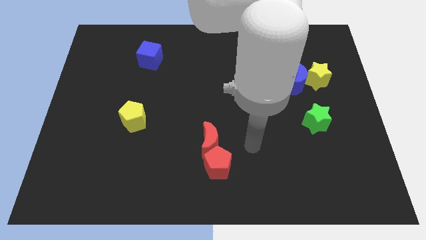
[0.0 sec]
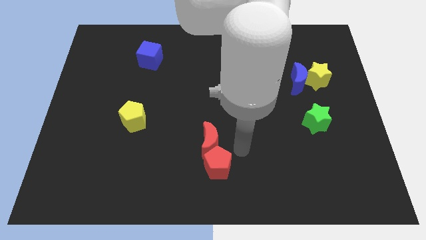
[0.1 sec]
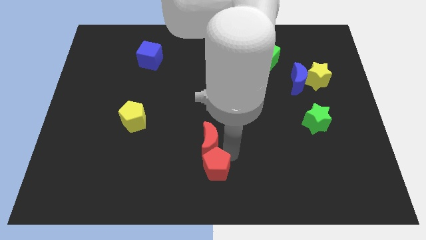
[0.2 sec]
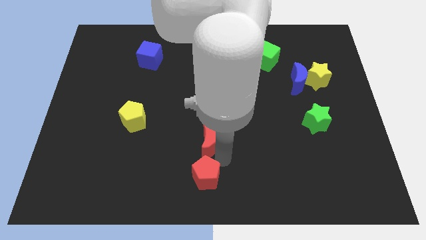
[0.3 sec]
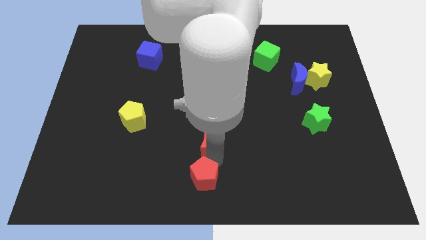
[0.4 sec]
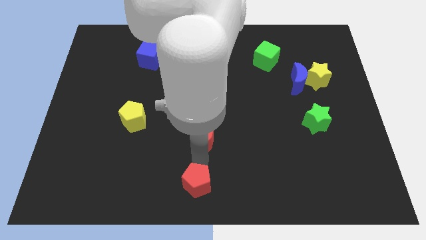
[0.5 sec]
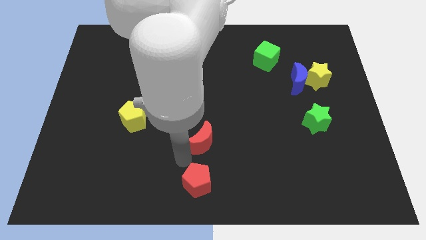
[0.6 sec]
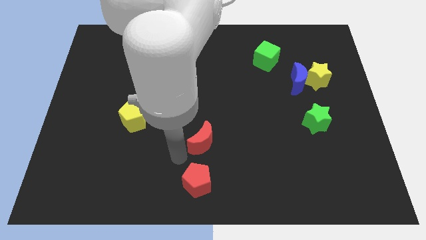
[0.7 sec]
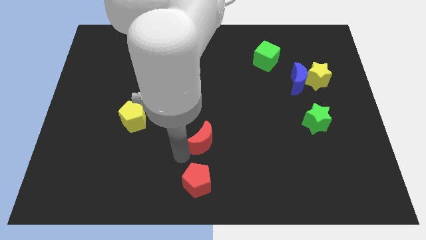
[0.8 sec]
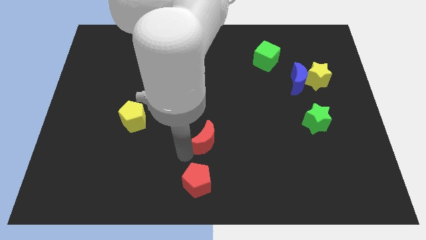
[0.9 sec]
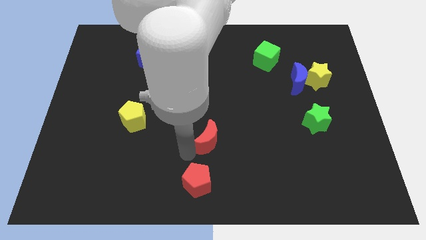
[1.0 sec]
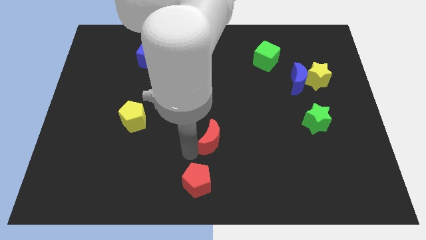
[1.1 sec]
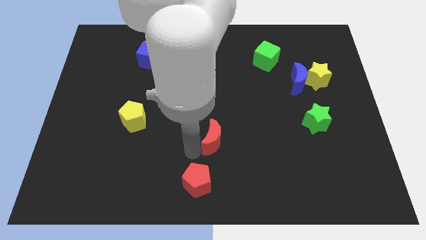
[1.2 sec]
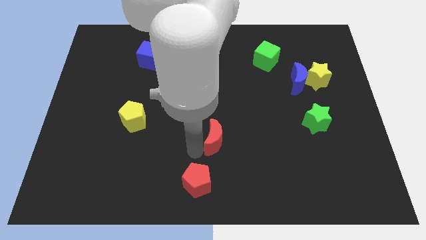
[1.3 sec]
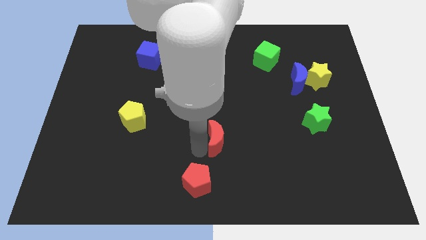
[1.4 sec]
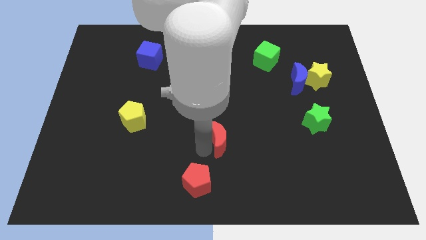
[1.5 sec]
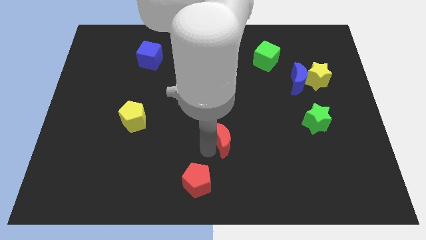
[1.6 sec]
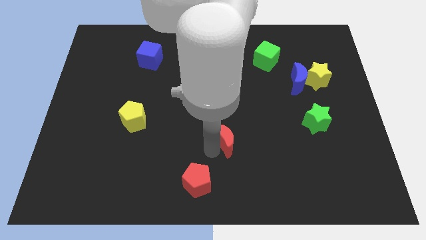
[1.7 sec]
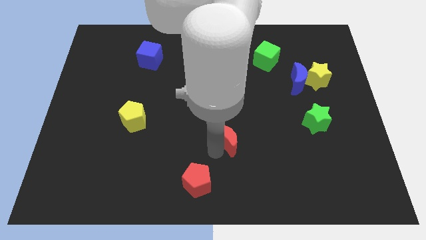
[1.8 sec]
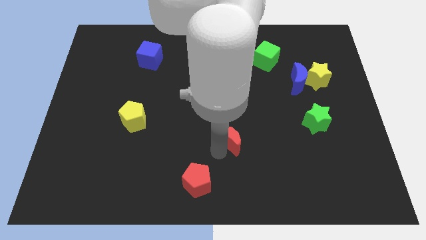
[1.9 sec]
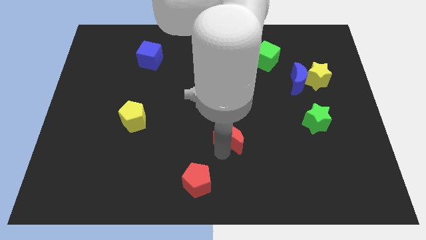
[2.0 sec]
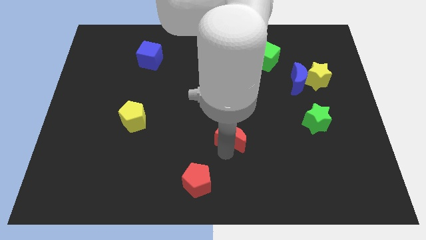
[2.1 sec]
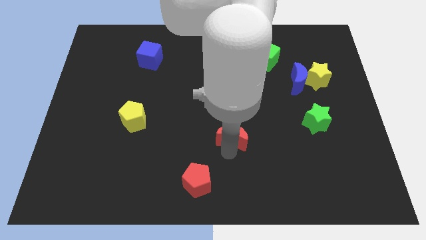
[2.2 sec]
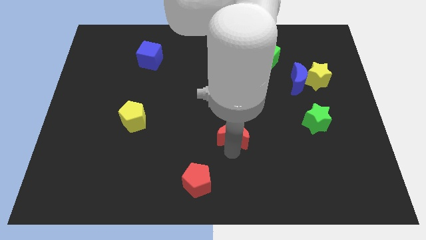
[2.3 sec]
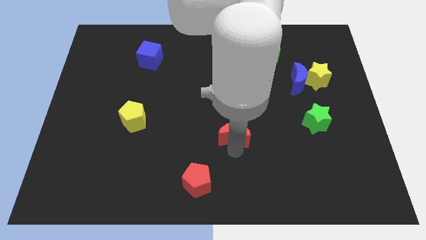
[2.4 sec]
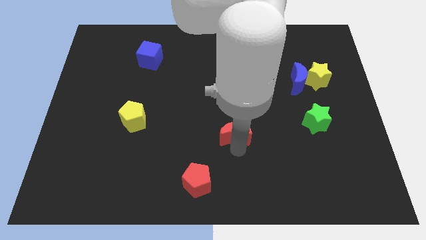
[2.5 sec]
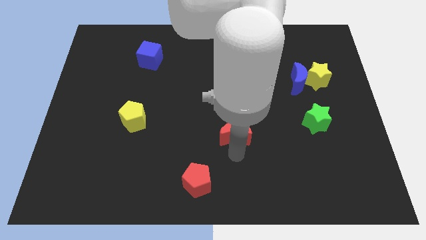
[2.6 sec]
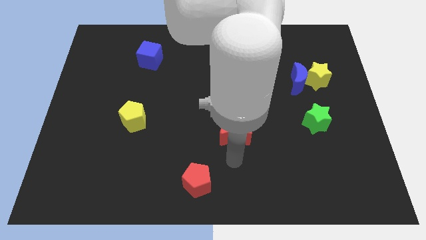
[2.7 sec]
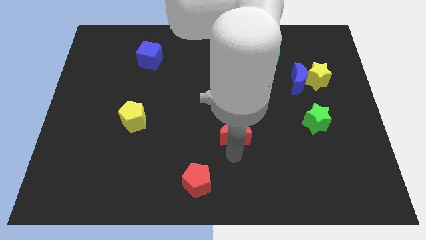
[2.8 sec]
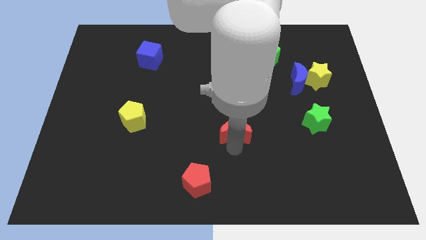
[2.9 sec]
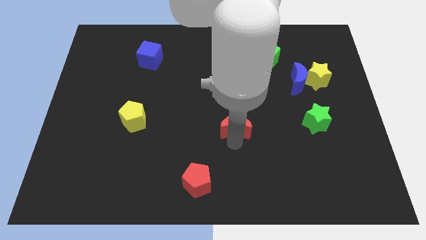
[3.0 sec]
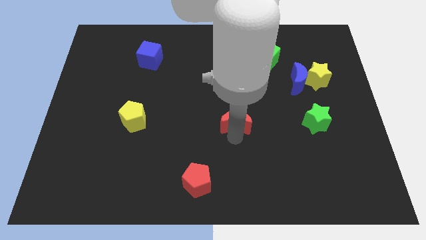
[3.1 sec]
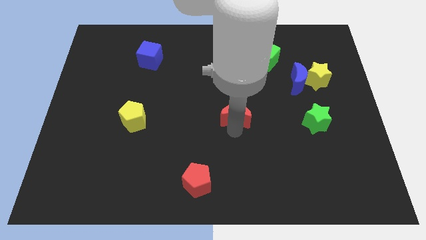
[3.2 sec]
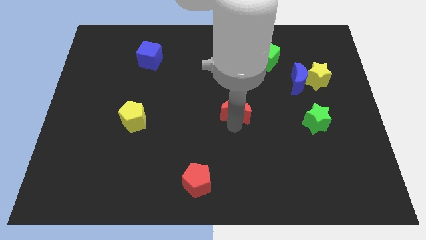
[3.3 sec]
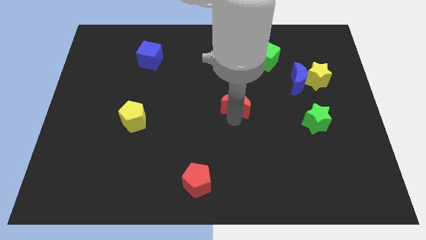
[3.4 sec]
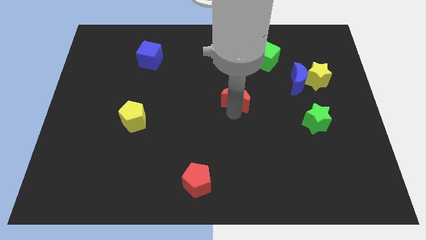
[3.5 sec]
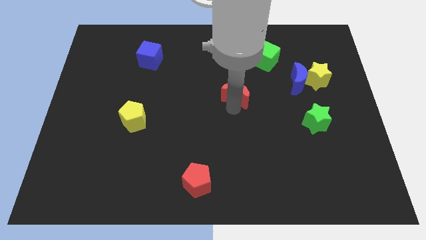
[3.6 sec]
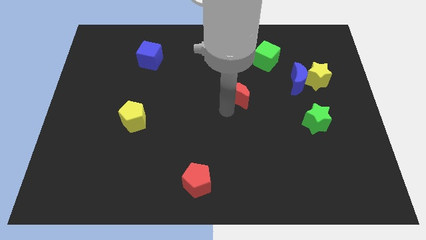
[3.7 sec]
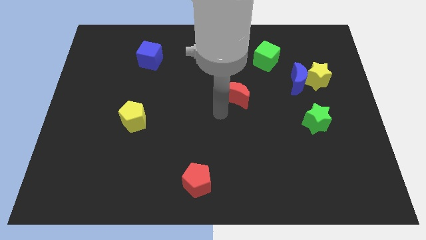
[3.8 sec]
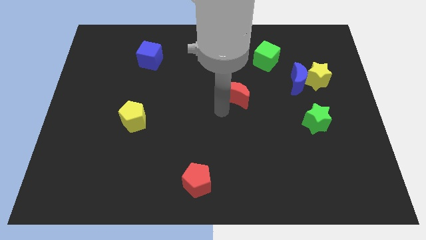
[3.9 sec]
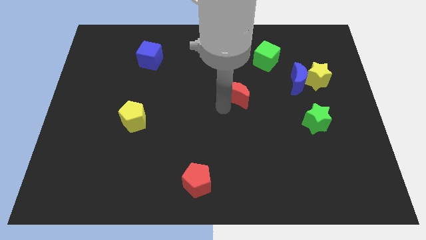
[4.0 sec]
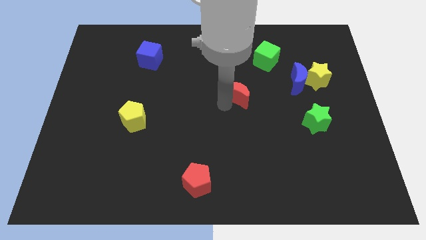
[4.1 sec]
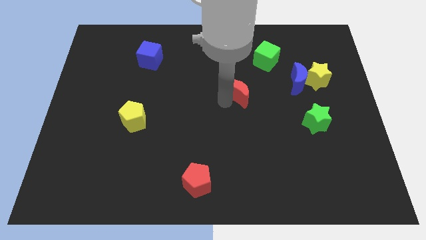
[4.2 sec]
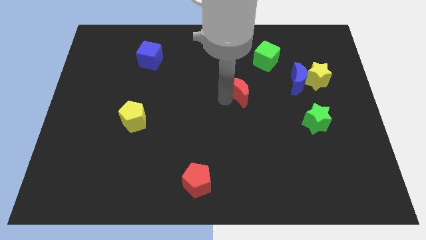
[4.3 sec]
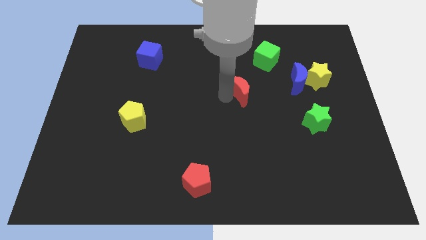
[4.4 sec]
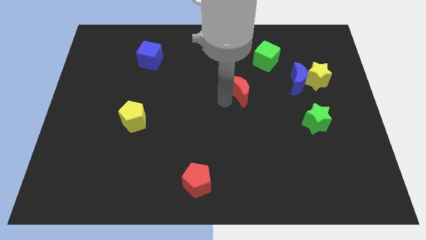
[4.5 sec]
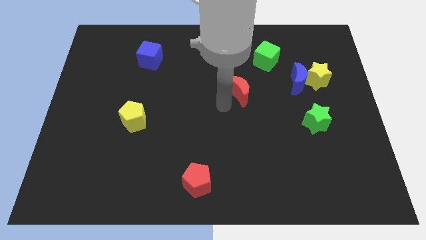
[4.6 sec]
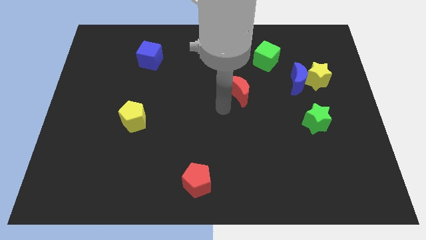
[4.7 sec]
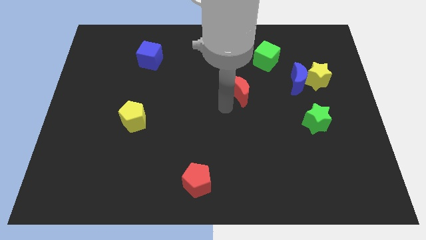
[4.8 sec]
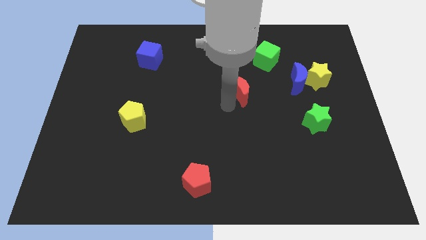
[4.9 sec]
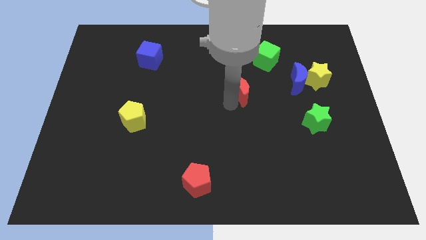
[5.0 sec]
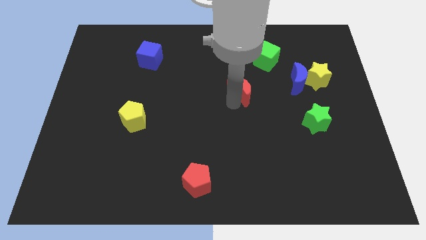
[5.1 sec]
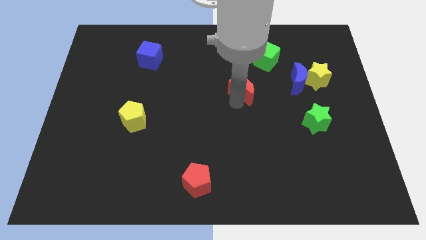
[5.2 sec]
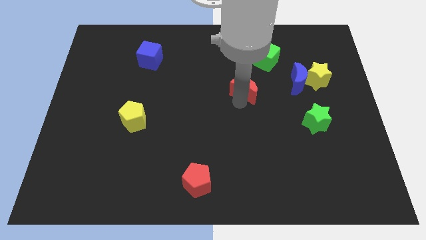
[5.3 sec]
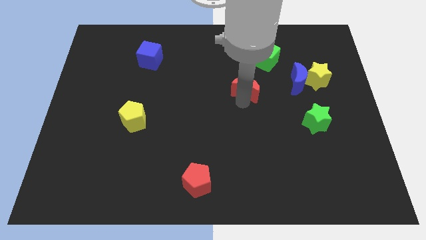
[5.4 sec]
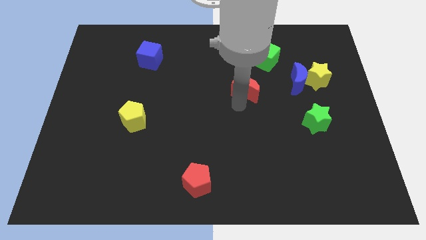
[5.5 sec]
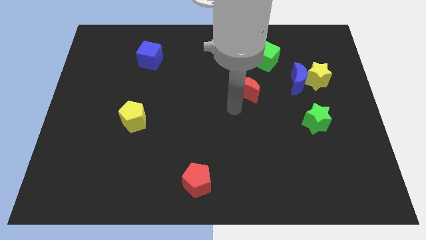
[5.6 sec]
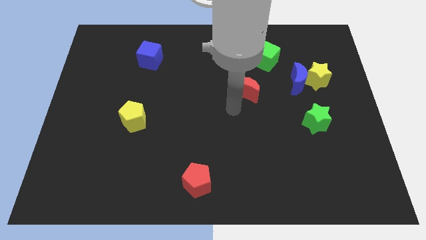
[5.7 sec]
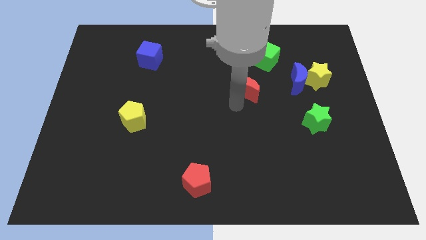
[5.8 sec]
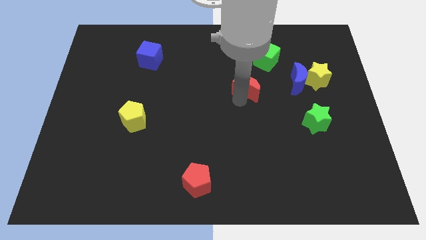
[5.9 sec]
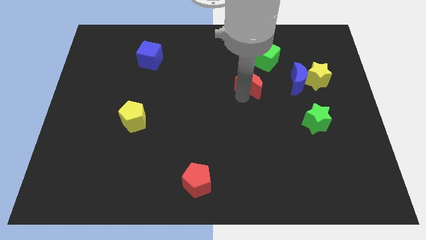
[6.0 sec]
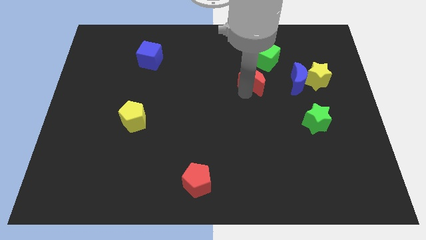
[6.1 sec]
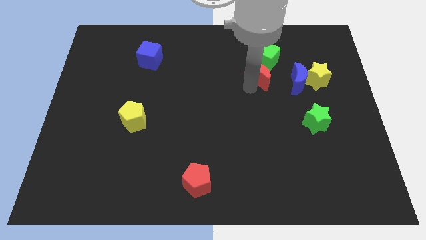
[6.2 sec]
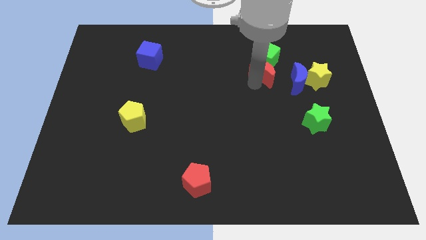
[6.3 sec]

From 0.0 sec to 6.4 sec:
push the red moon close to the green cube
